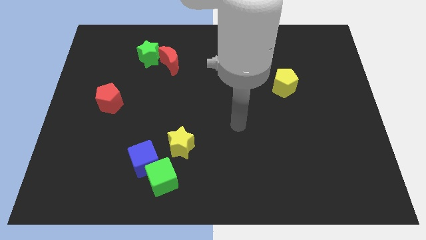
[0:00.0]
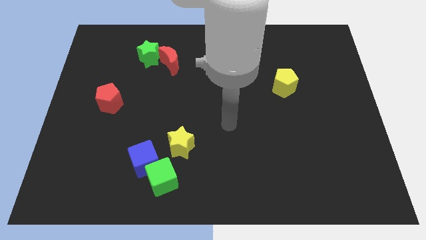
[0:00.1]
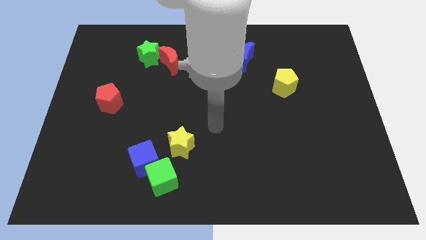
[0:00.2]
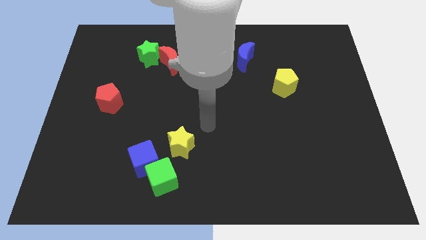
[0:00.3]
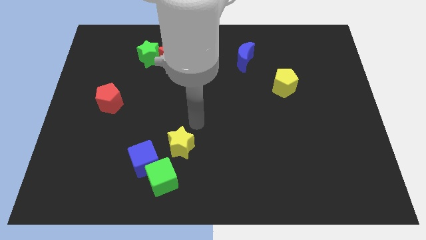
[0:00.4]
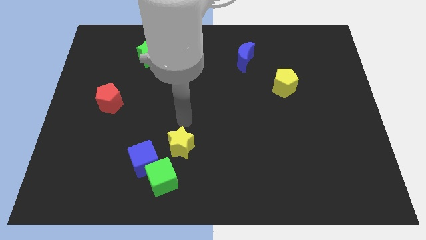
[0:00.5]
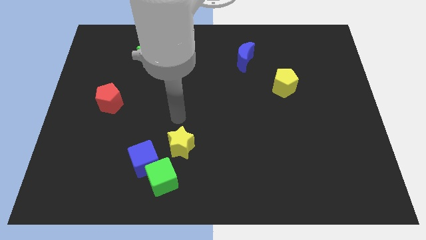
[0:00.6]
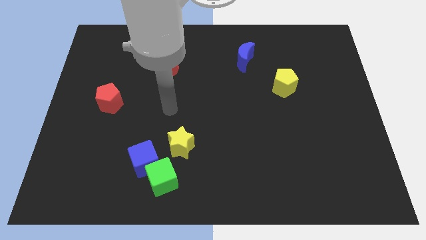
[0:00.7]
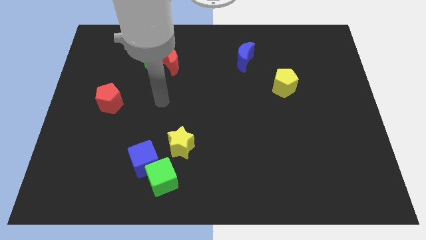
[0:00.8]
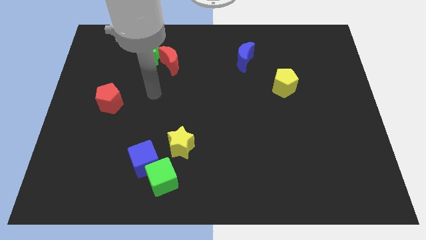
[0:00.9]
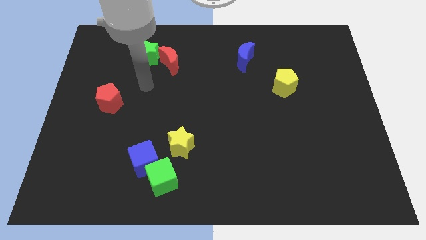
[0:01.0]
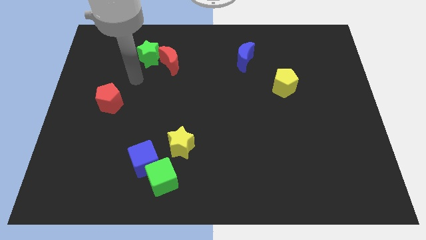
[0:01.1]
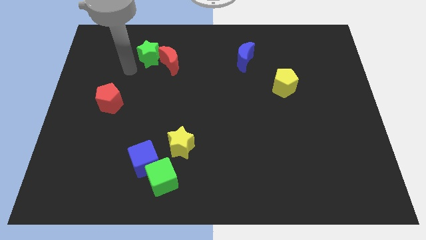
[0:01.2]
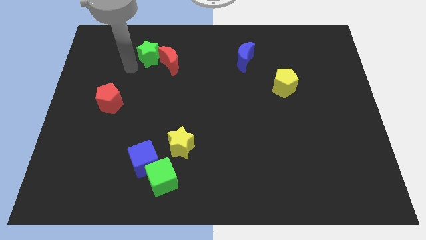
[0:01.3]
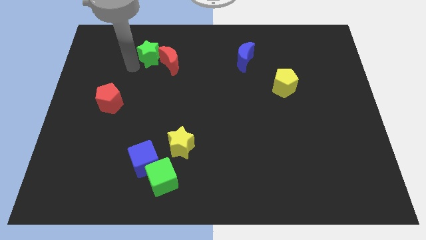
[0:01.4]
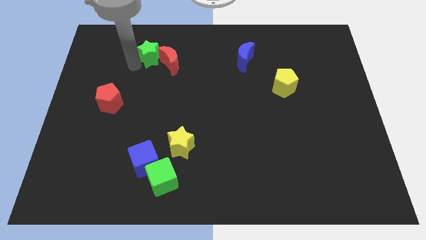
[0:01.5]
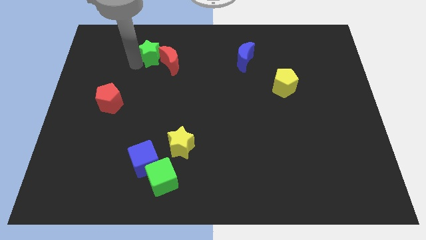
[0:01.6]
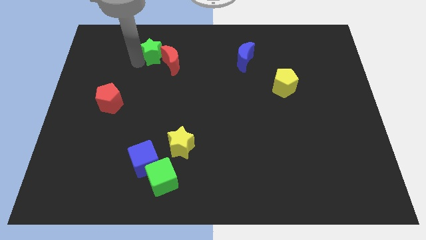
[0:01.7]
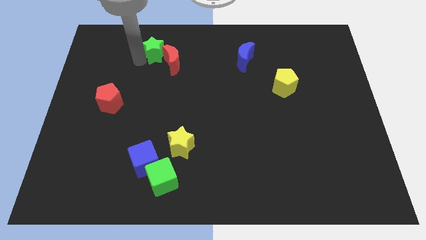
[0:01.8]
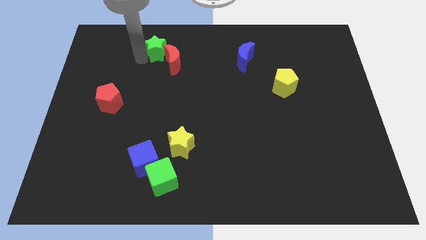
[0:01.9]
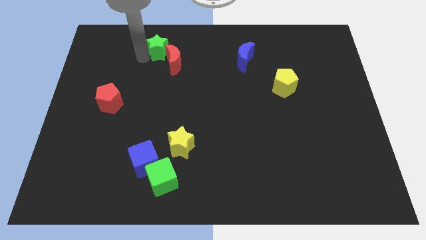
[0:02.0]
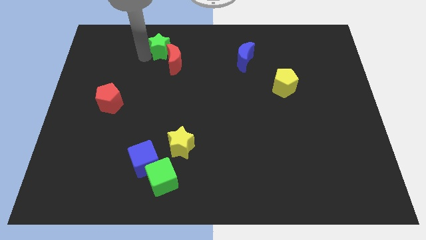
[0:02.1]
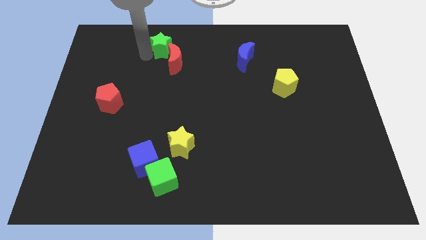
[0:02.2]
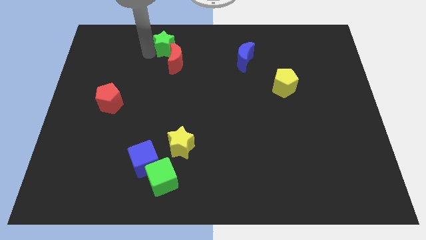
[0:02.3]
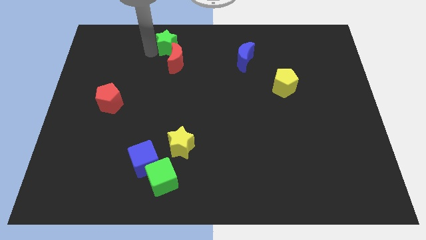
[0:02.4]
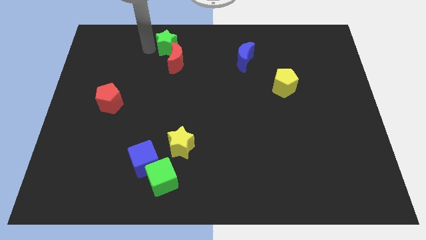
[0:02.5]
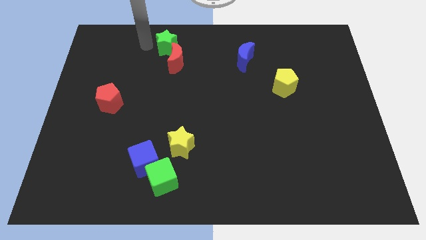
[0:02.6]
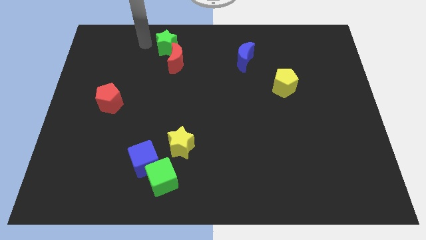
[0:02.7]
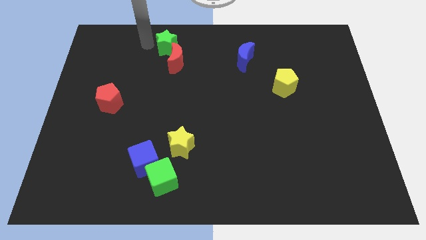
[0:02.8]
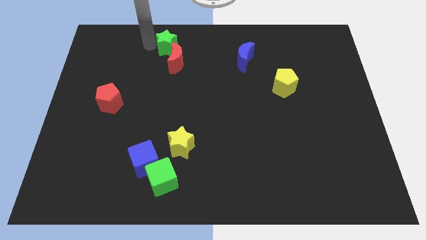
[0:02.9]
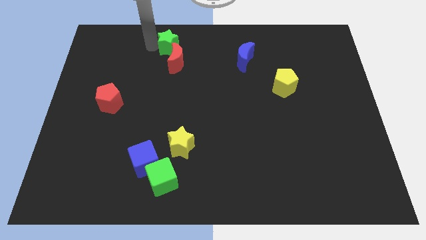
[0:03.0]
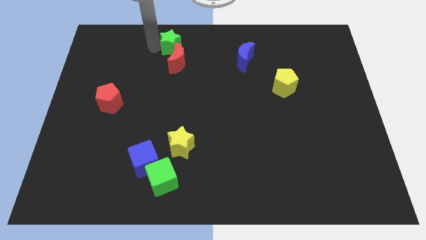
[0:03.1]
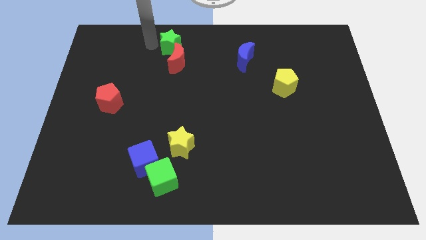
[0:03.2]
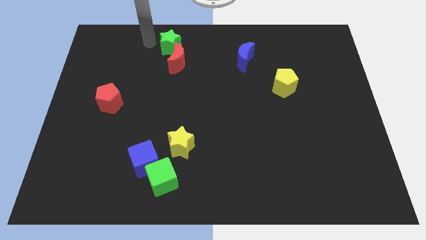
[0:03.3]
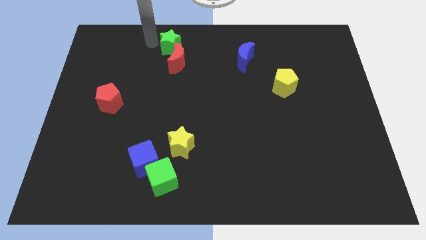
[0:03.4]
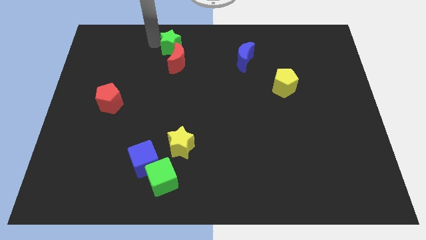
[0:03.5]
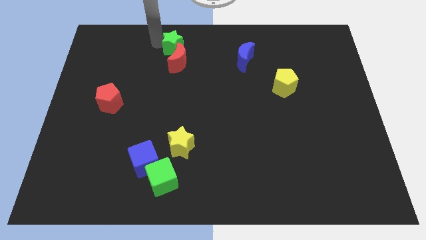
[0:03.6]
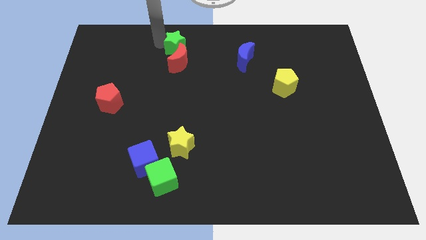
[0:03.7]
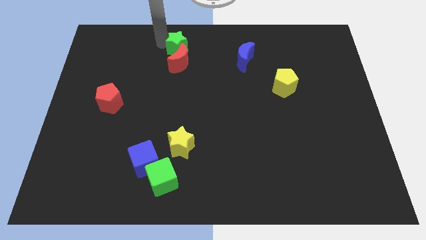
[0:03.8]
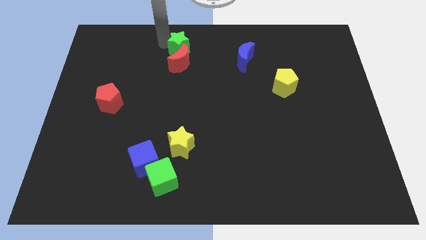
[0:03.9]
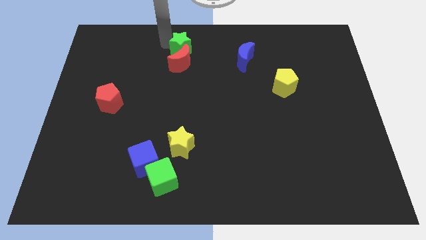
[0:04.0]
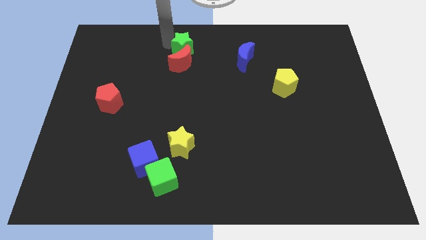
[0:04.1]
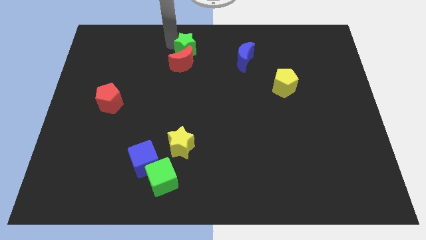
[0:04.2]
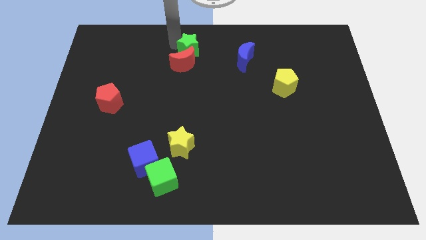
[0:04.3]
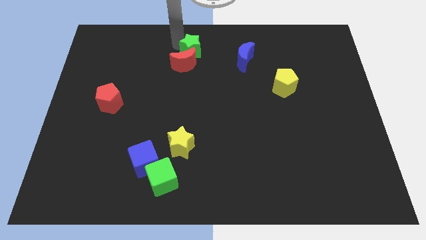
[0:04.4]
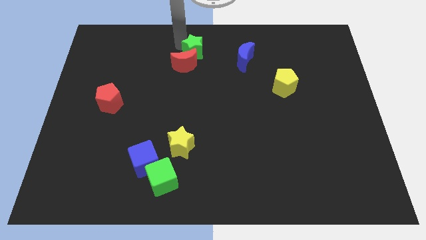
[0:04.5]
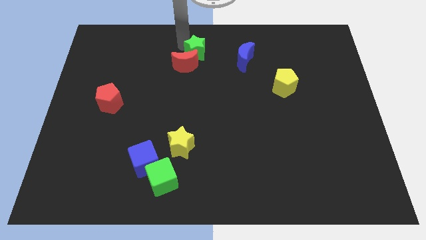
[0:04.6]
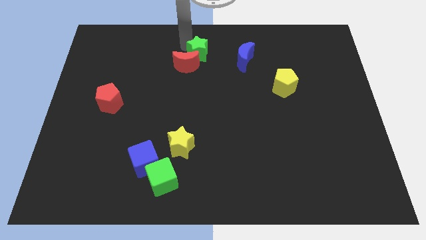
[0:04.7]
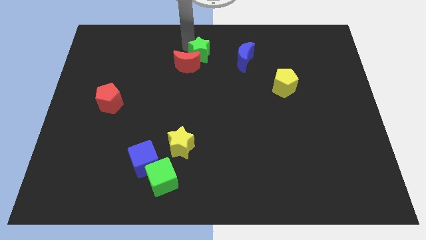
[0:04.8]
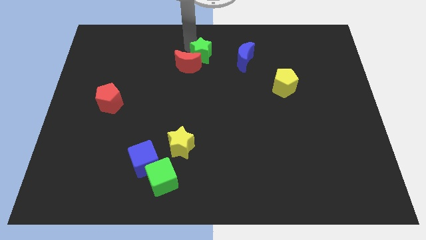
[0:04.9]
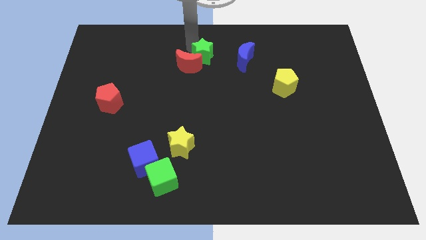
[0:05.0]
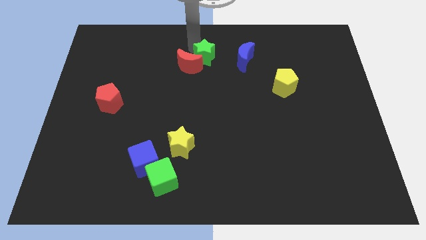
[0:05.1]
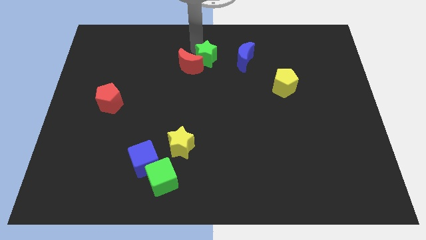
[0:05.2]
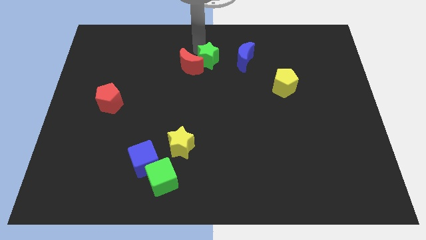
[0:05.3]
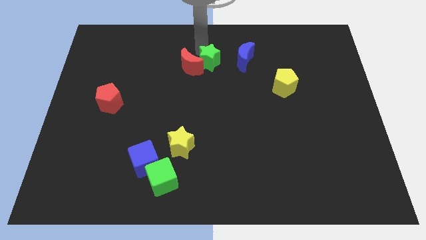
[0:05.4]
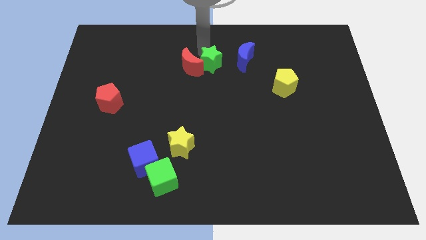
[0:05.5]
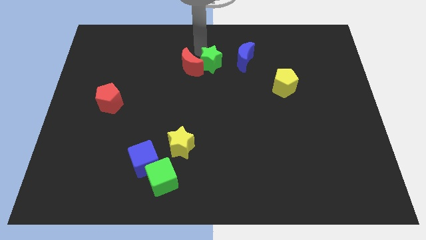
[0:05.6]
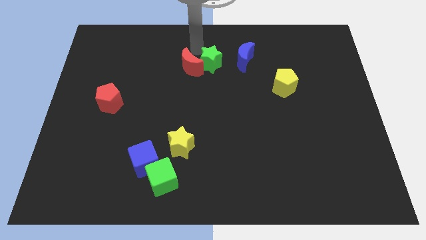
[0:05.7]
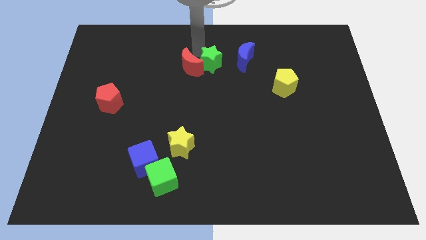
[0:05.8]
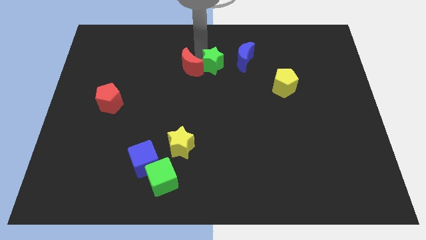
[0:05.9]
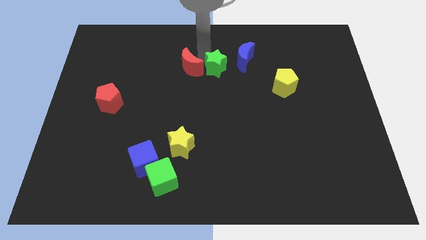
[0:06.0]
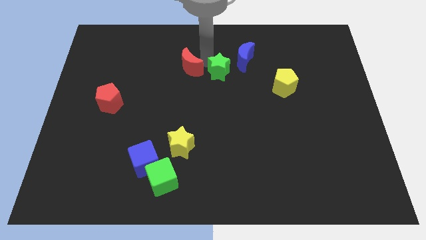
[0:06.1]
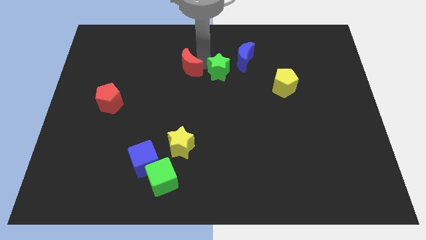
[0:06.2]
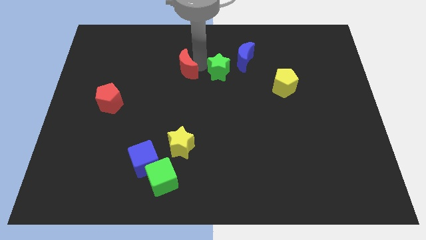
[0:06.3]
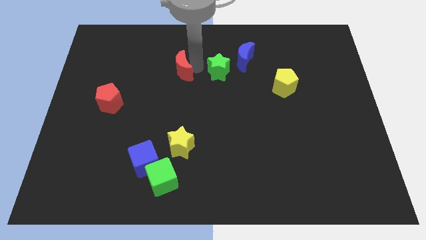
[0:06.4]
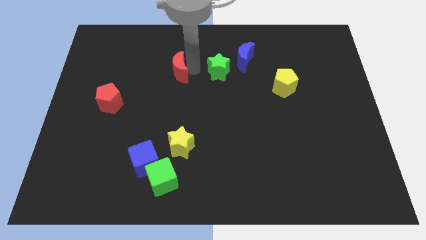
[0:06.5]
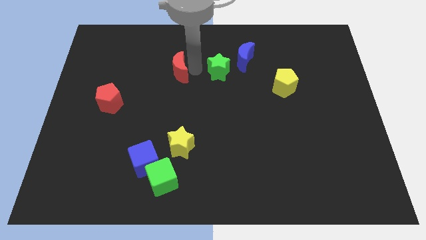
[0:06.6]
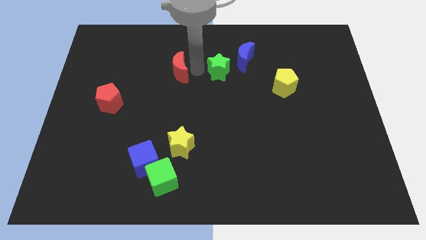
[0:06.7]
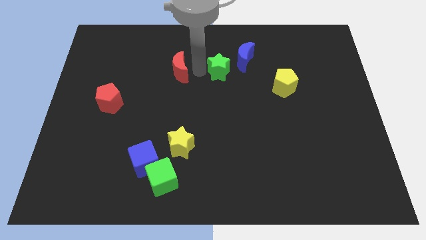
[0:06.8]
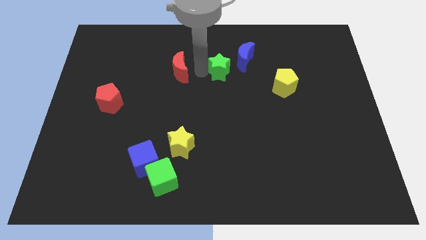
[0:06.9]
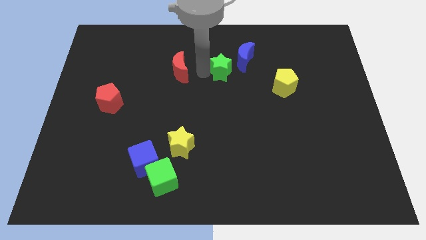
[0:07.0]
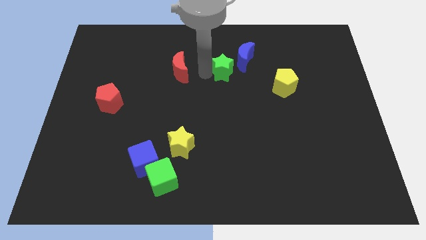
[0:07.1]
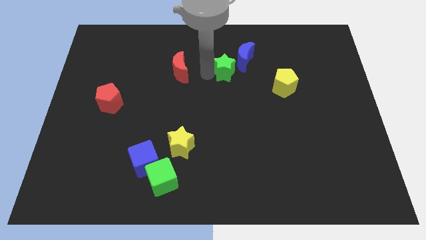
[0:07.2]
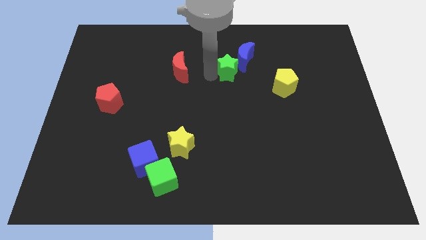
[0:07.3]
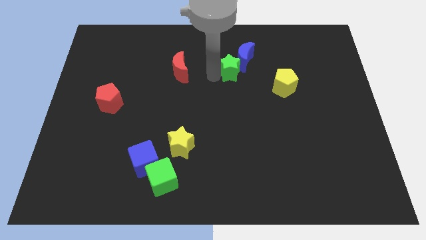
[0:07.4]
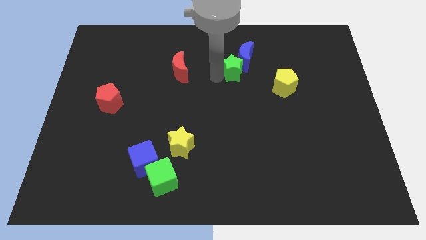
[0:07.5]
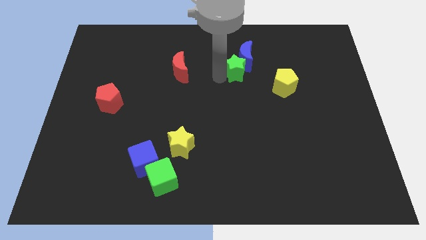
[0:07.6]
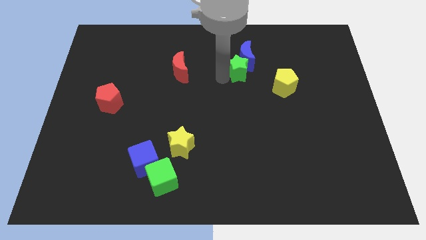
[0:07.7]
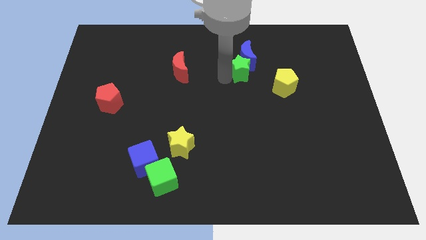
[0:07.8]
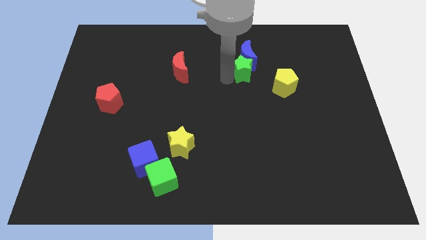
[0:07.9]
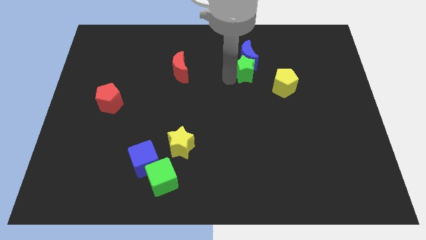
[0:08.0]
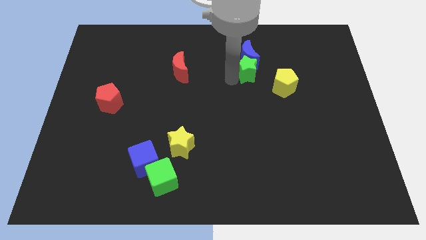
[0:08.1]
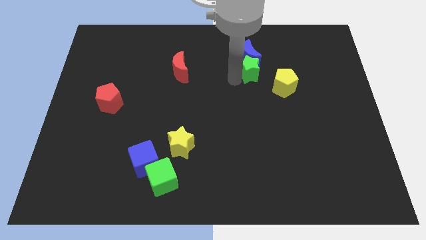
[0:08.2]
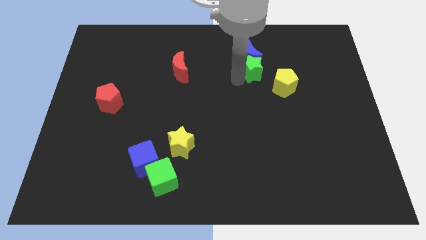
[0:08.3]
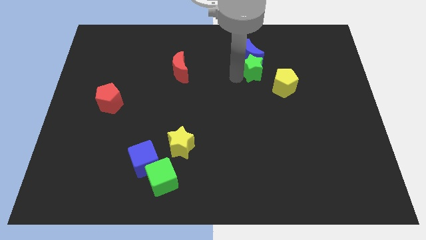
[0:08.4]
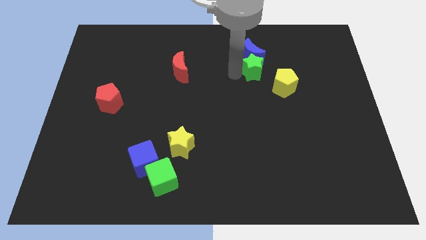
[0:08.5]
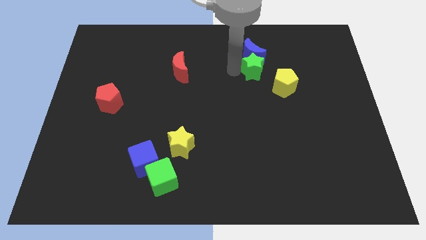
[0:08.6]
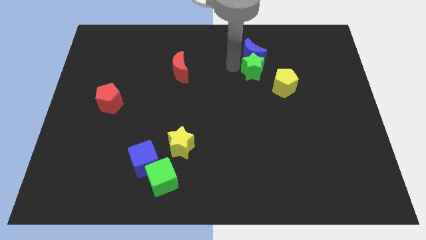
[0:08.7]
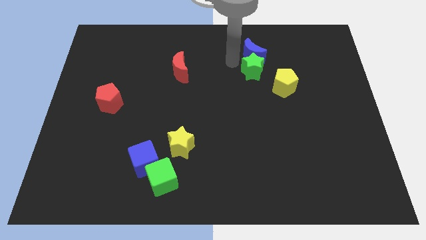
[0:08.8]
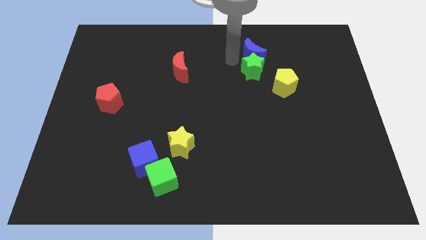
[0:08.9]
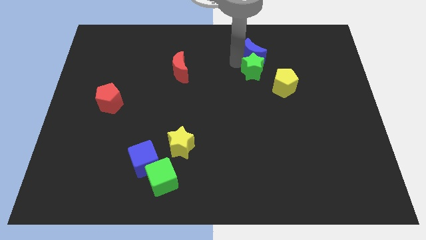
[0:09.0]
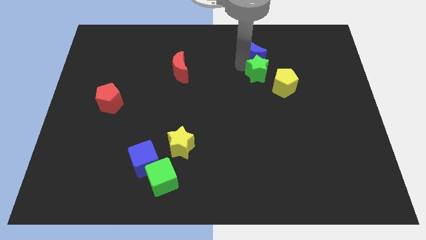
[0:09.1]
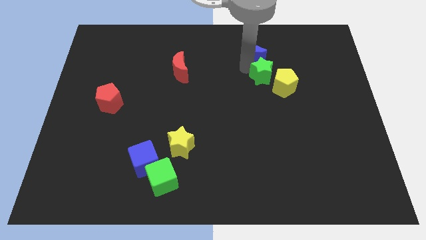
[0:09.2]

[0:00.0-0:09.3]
move the green star close to the yellow pentagon
